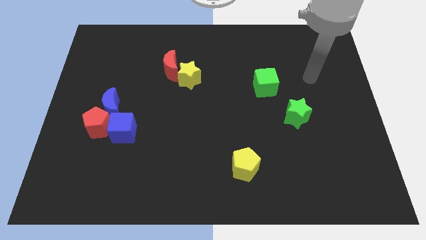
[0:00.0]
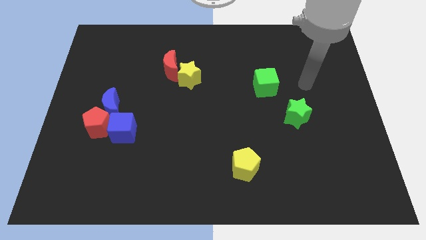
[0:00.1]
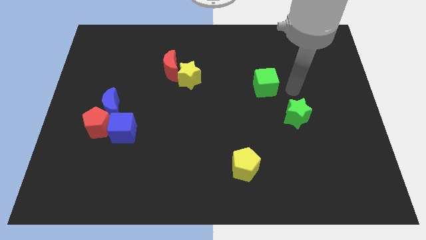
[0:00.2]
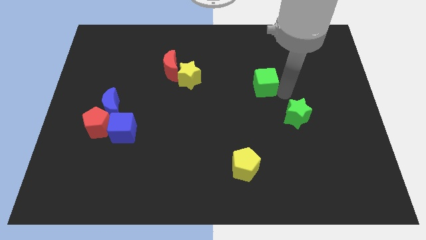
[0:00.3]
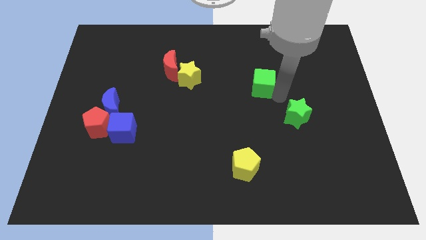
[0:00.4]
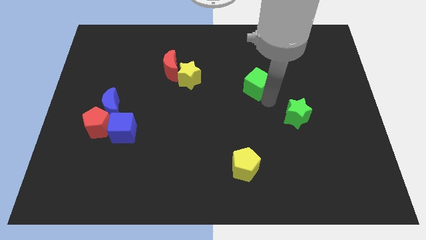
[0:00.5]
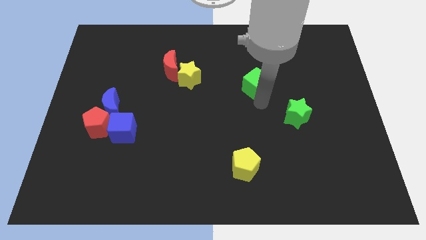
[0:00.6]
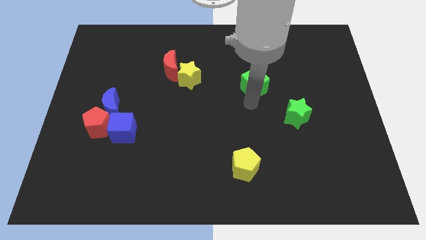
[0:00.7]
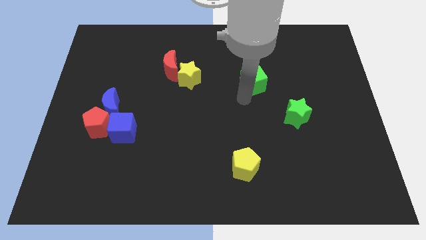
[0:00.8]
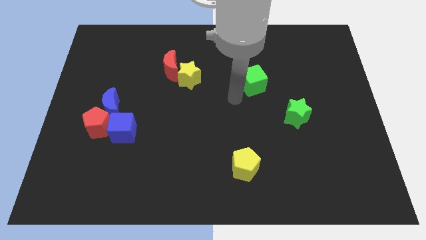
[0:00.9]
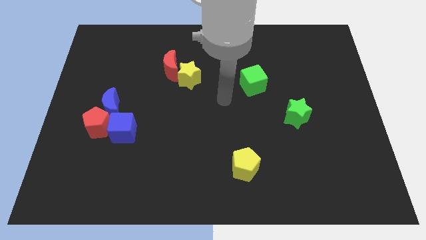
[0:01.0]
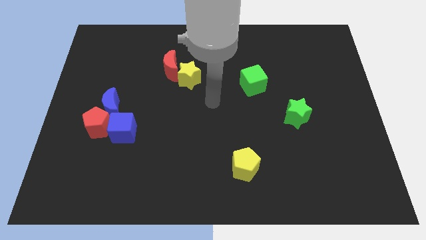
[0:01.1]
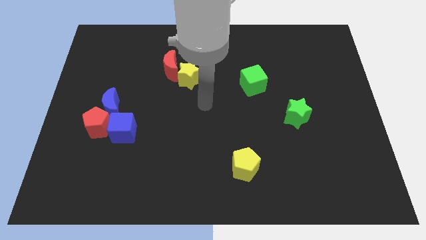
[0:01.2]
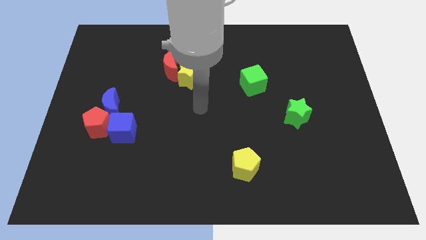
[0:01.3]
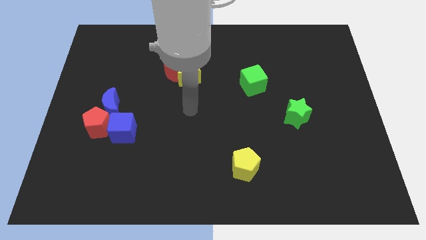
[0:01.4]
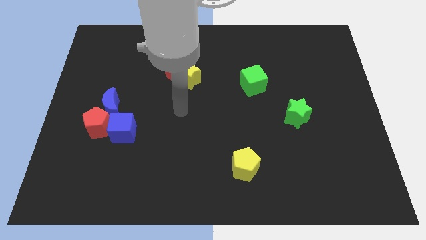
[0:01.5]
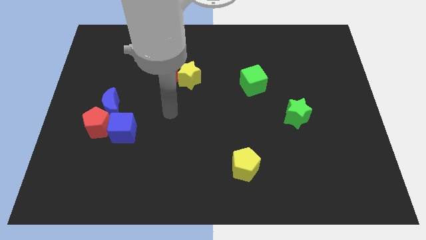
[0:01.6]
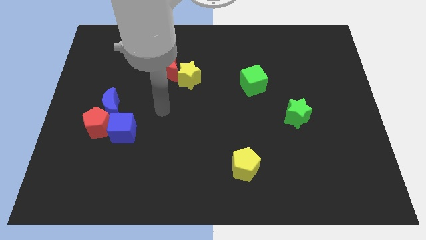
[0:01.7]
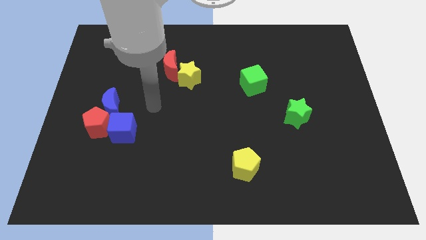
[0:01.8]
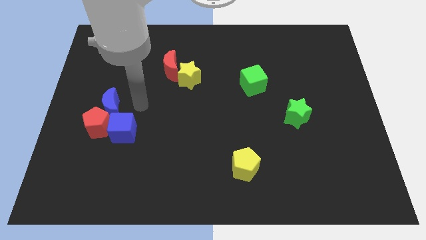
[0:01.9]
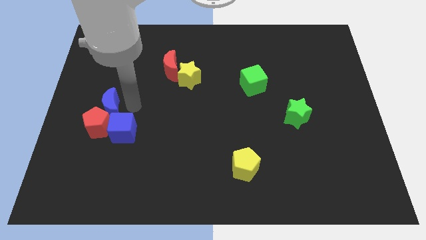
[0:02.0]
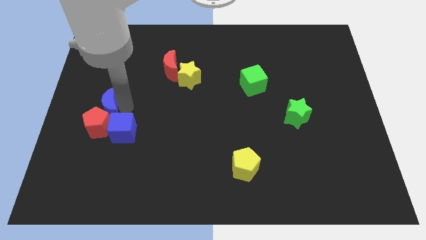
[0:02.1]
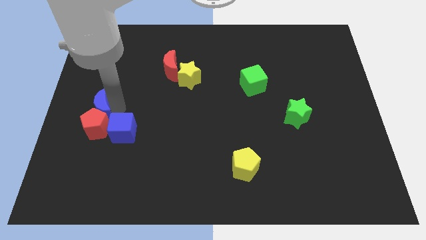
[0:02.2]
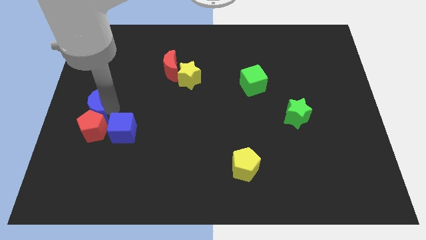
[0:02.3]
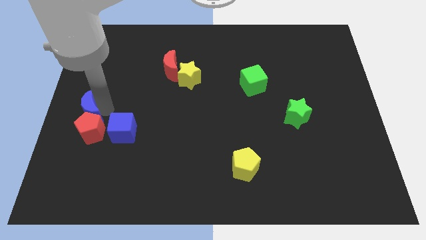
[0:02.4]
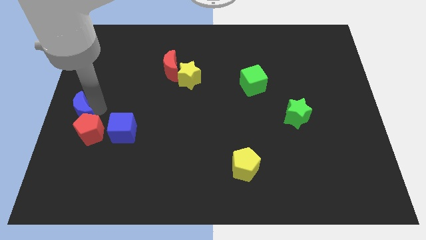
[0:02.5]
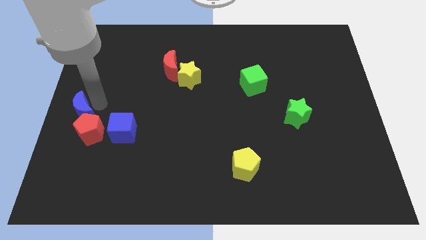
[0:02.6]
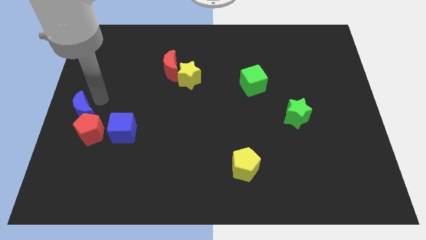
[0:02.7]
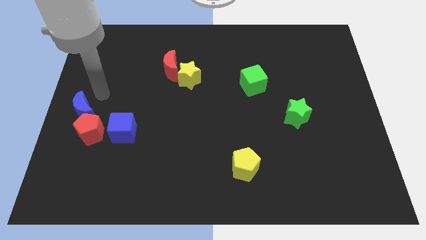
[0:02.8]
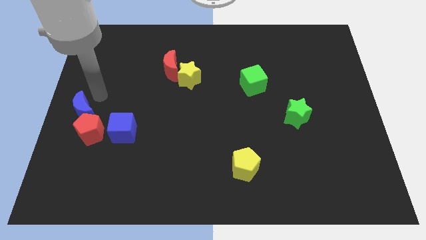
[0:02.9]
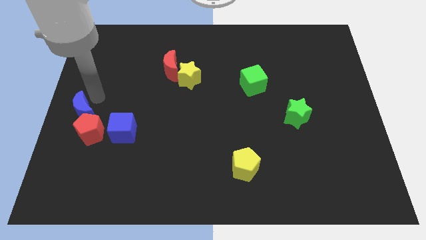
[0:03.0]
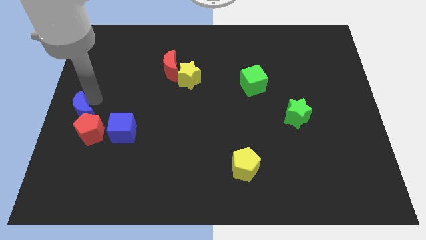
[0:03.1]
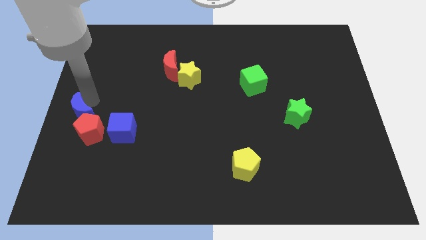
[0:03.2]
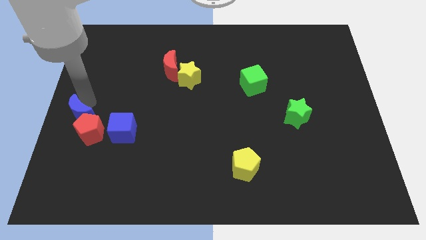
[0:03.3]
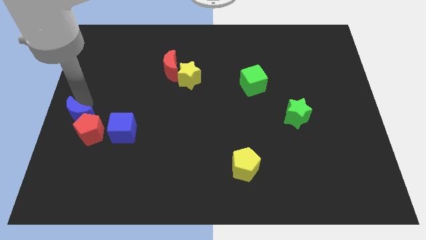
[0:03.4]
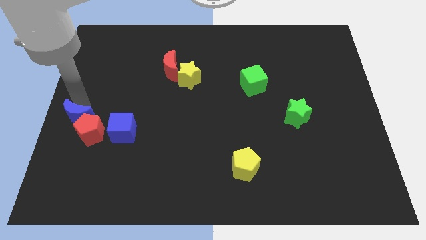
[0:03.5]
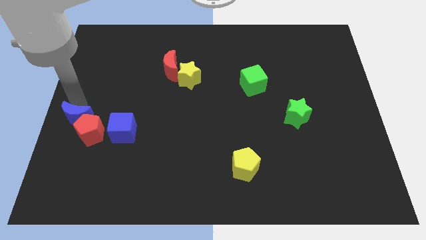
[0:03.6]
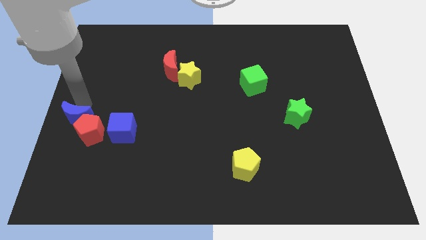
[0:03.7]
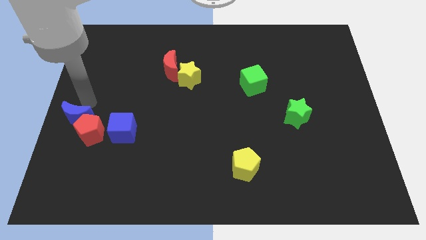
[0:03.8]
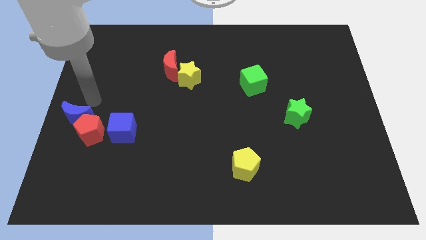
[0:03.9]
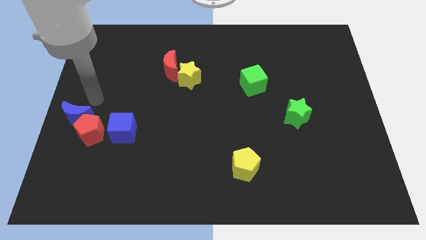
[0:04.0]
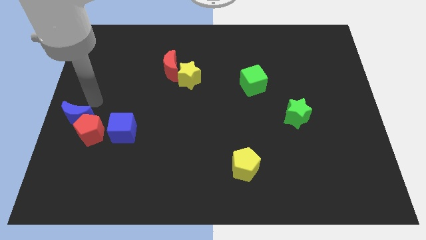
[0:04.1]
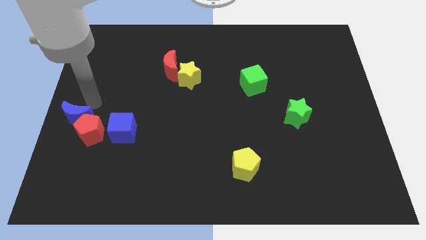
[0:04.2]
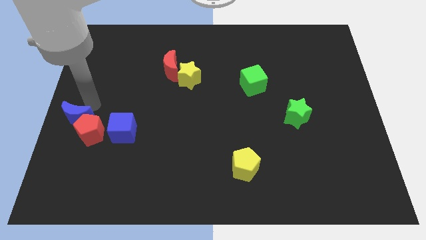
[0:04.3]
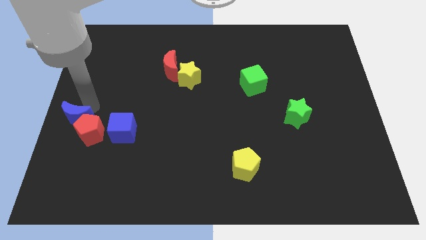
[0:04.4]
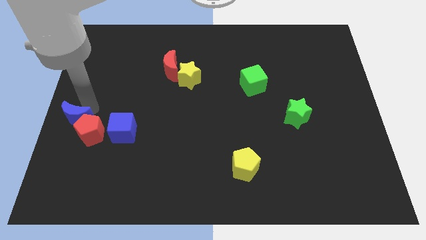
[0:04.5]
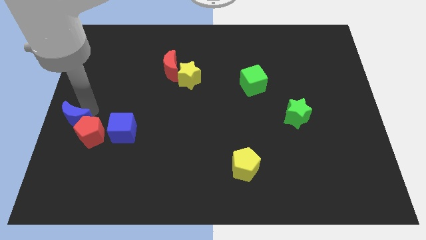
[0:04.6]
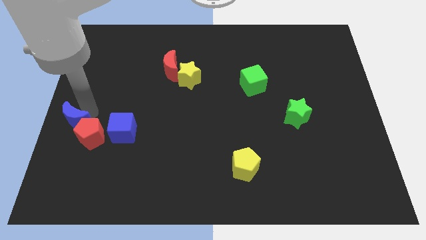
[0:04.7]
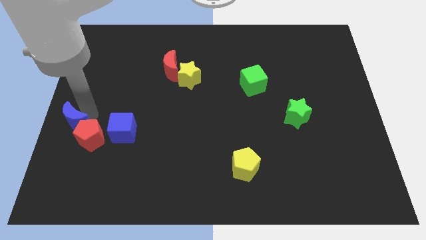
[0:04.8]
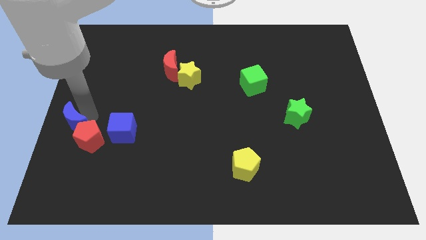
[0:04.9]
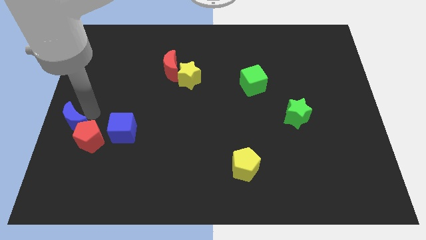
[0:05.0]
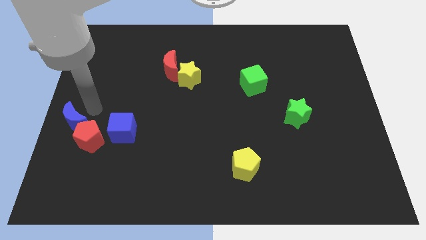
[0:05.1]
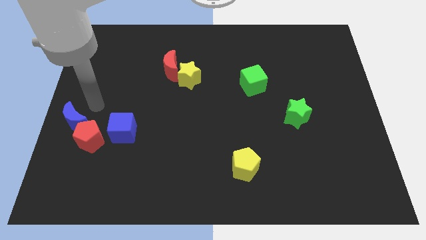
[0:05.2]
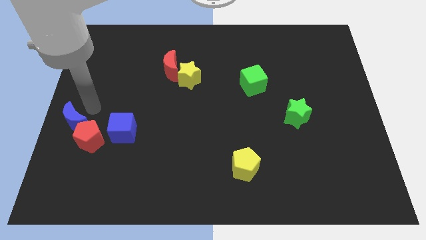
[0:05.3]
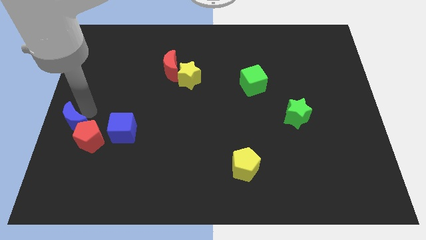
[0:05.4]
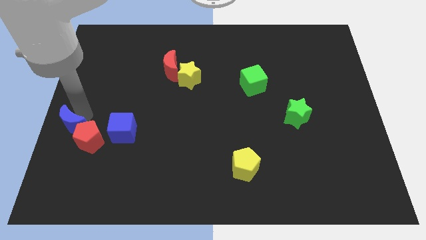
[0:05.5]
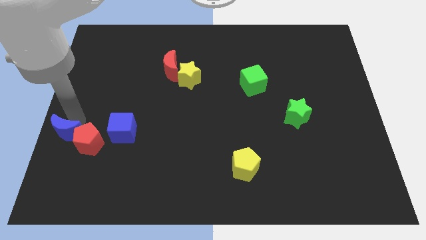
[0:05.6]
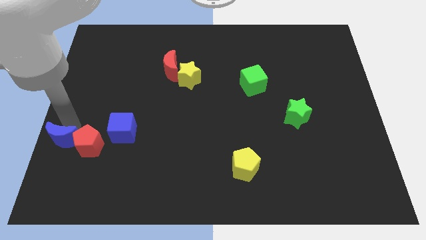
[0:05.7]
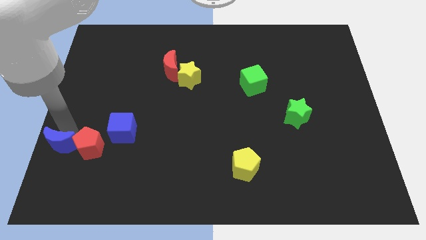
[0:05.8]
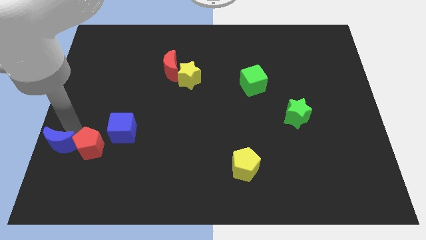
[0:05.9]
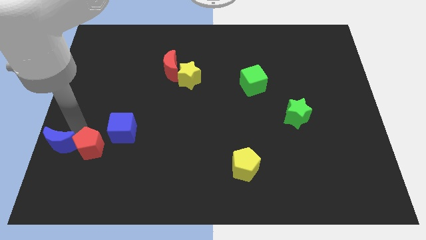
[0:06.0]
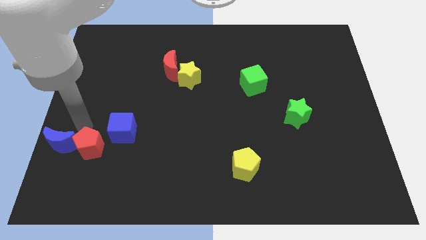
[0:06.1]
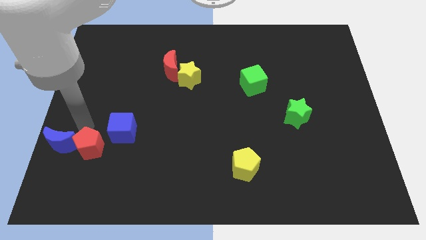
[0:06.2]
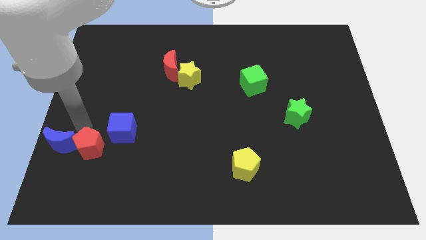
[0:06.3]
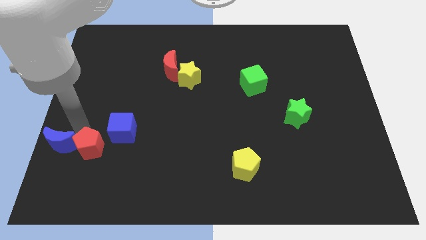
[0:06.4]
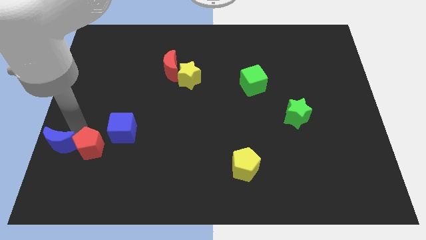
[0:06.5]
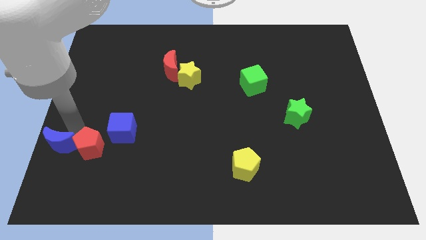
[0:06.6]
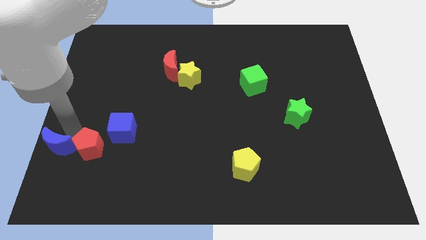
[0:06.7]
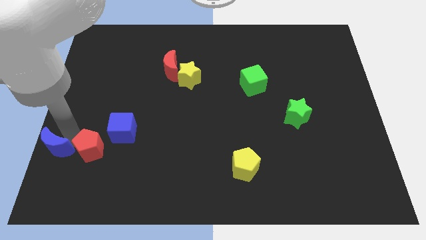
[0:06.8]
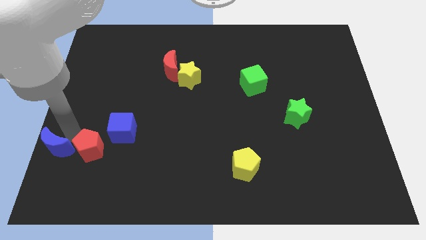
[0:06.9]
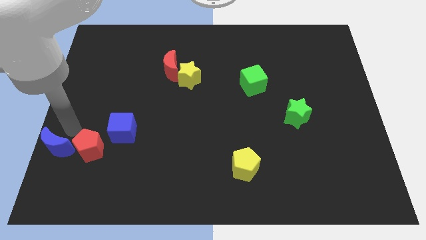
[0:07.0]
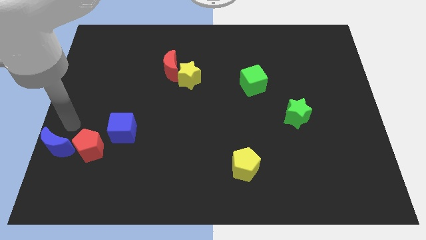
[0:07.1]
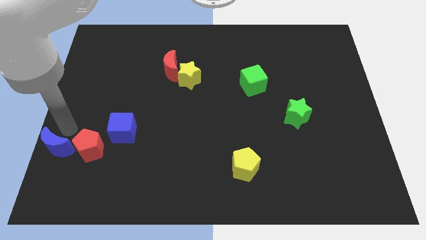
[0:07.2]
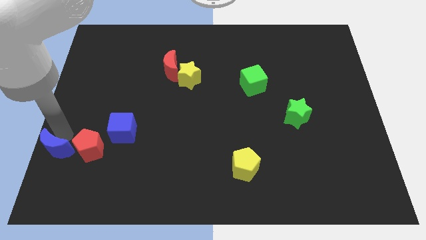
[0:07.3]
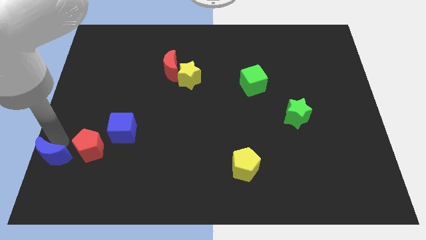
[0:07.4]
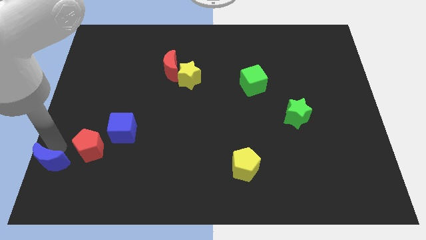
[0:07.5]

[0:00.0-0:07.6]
slide the blue moon to the bottom left of the board
